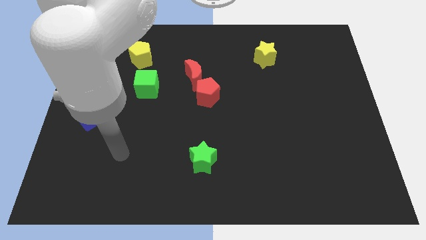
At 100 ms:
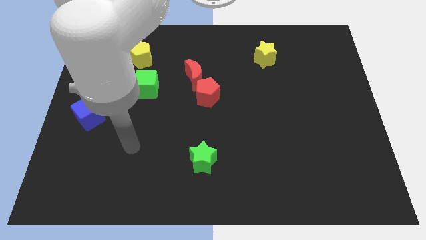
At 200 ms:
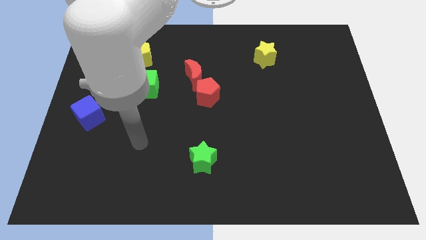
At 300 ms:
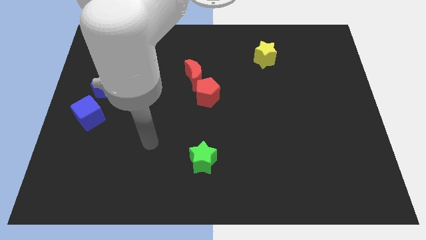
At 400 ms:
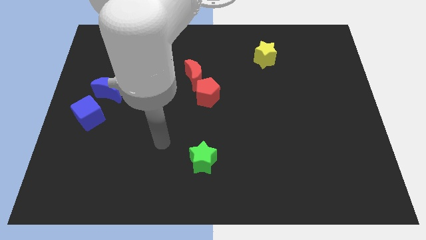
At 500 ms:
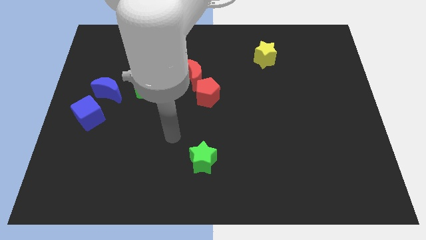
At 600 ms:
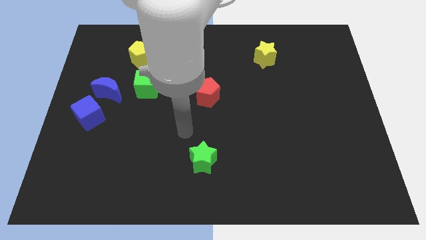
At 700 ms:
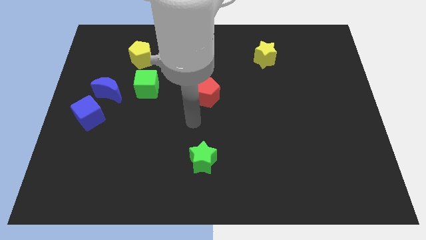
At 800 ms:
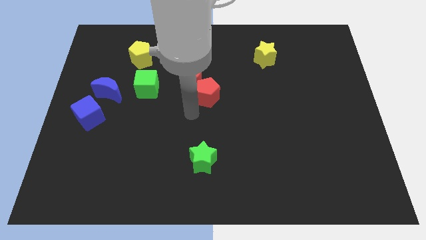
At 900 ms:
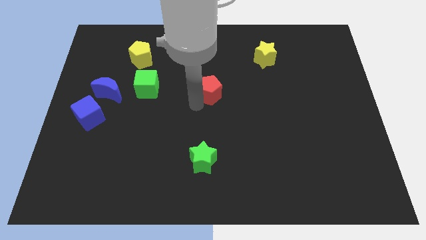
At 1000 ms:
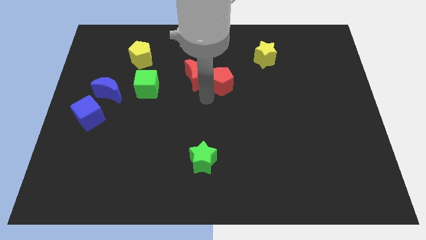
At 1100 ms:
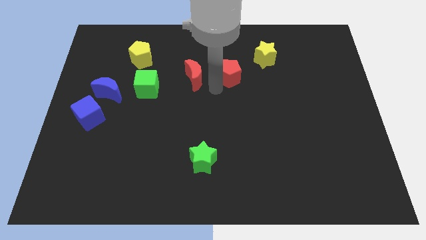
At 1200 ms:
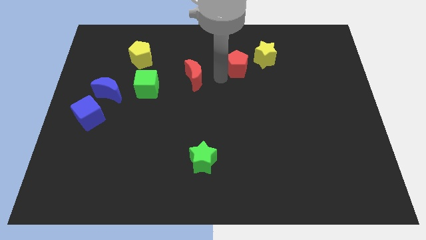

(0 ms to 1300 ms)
move the red moon away from the red pentagon

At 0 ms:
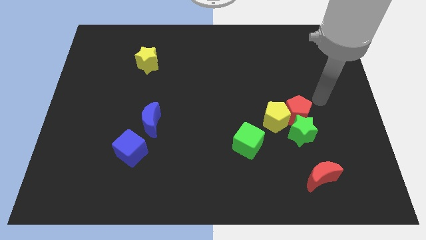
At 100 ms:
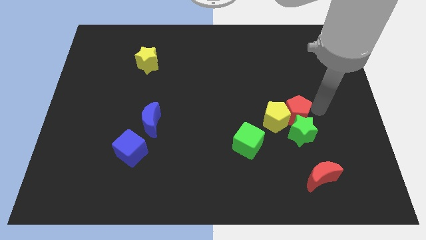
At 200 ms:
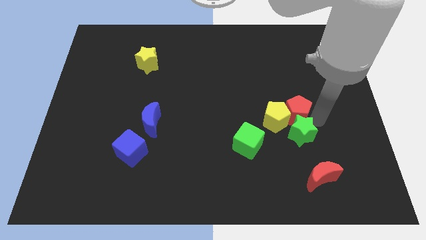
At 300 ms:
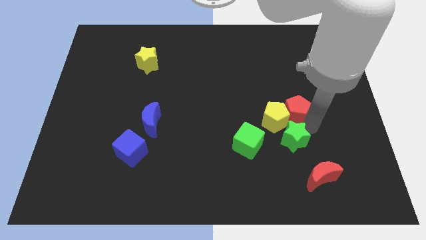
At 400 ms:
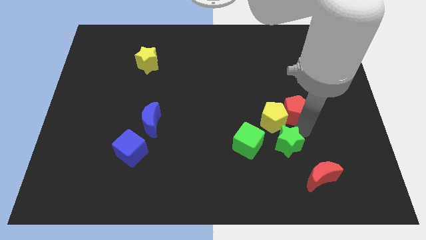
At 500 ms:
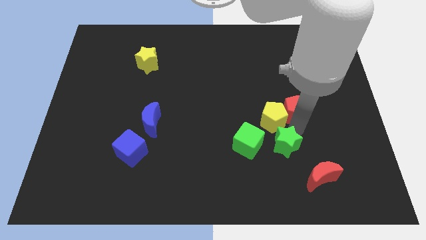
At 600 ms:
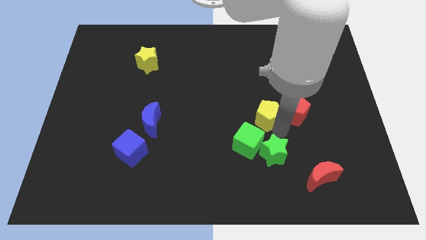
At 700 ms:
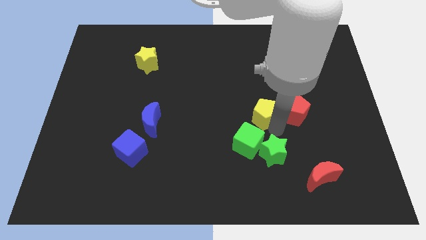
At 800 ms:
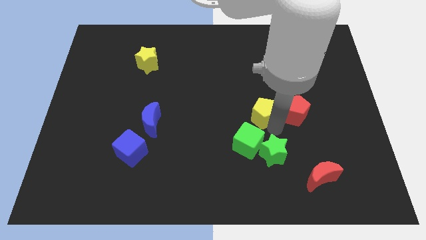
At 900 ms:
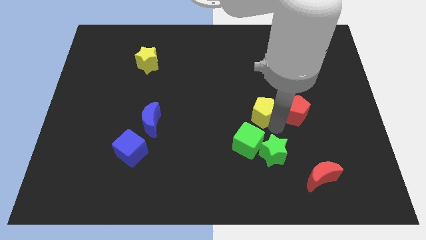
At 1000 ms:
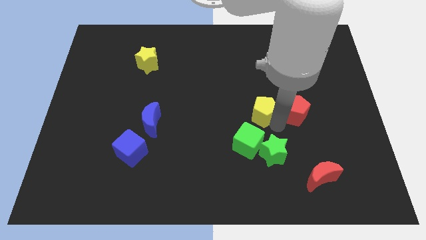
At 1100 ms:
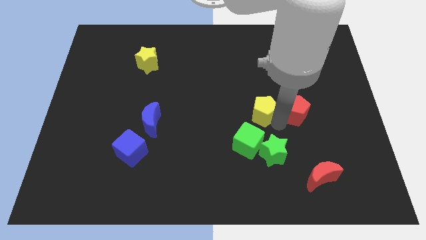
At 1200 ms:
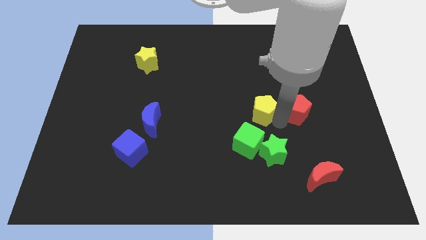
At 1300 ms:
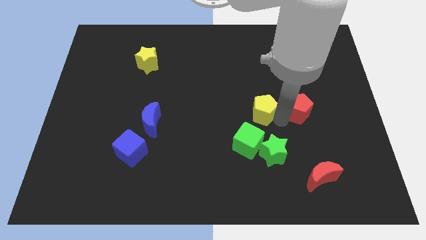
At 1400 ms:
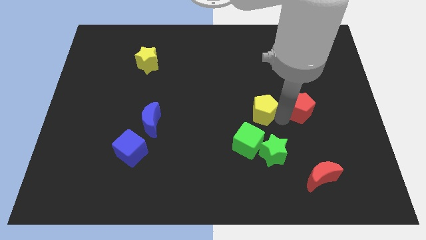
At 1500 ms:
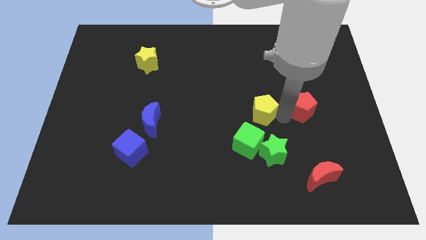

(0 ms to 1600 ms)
pull the red pentagon apart from the green star and yellow pentagon

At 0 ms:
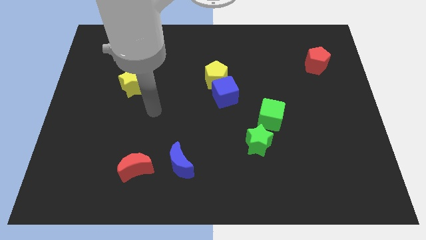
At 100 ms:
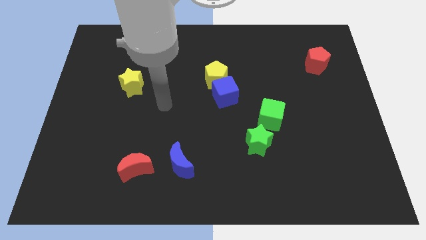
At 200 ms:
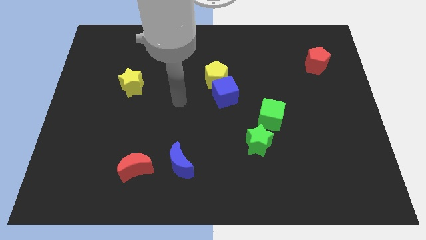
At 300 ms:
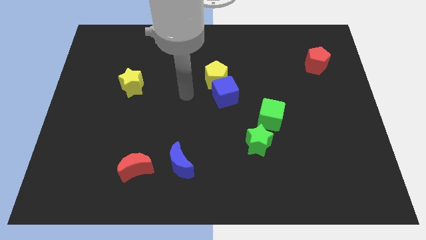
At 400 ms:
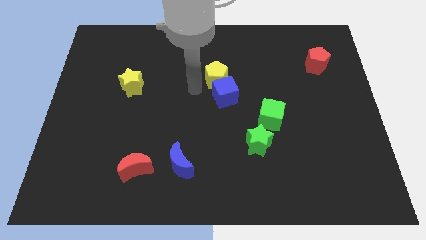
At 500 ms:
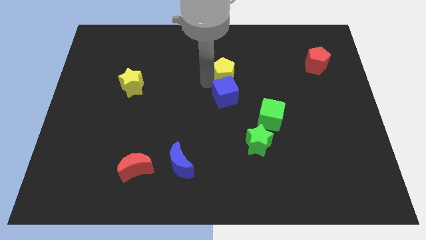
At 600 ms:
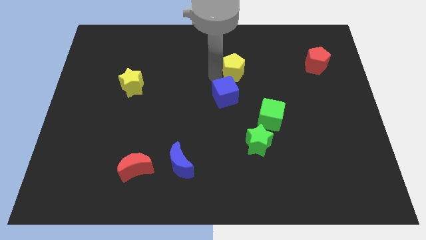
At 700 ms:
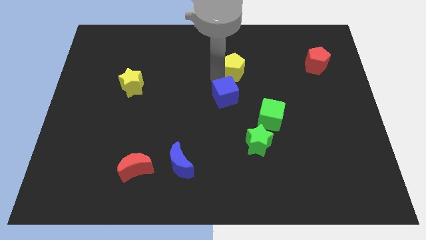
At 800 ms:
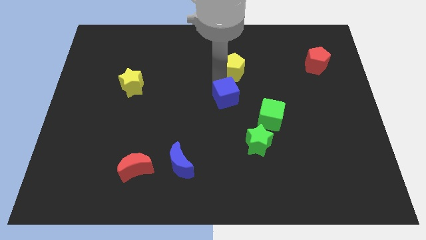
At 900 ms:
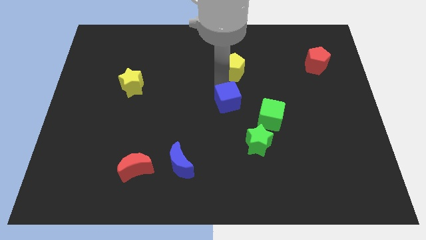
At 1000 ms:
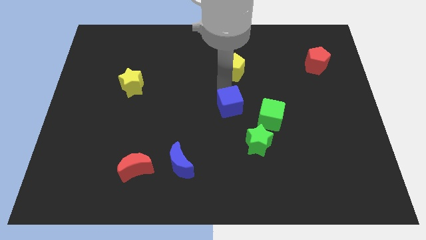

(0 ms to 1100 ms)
move the blue cube away from the yellow pentagon

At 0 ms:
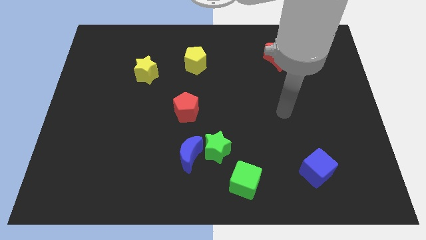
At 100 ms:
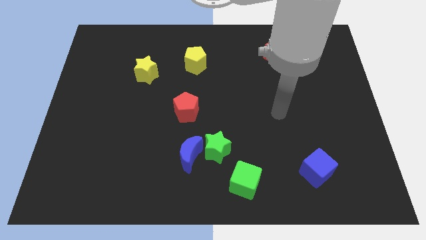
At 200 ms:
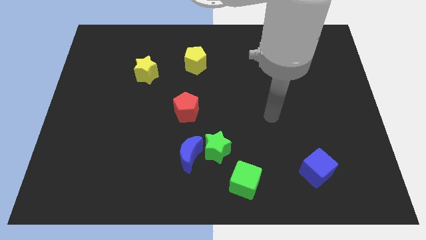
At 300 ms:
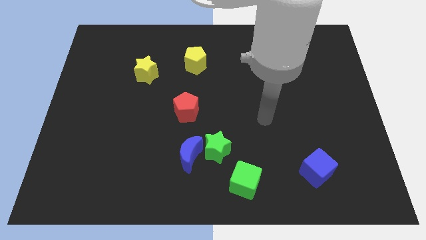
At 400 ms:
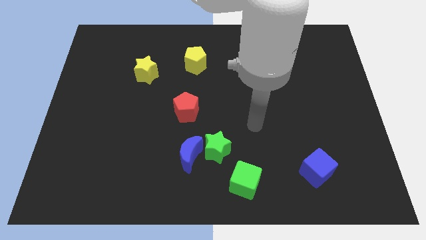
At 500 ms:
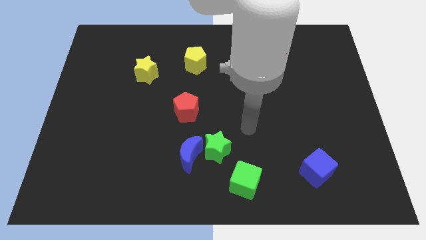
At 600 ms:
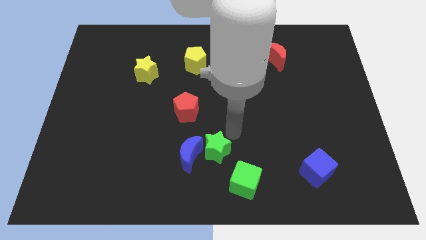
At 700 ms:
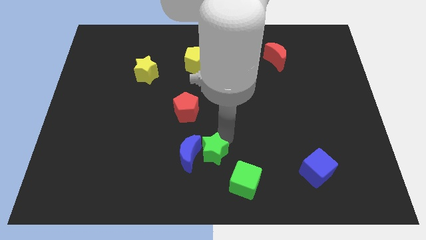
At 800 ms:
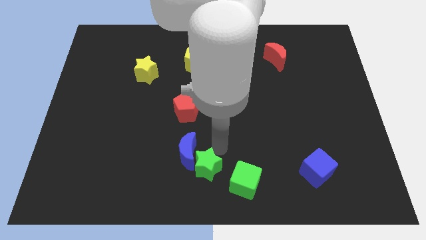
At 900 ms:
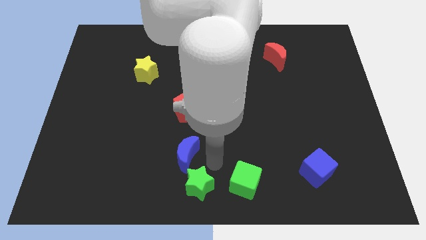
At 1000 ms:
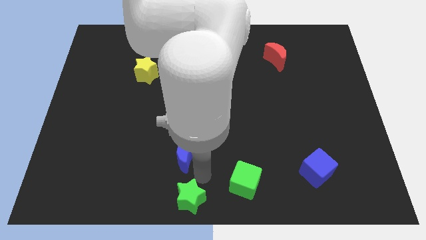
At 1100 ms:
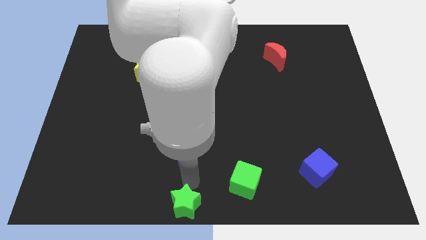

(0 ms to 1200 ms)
separate the blue moon from the green star

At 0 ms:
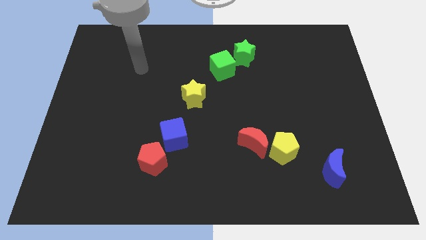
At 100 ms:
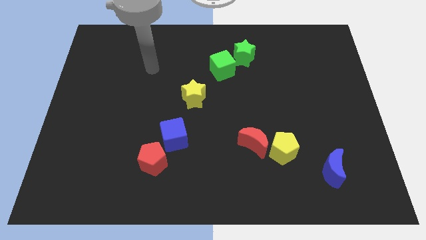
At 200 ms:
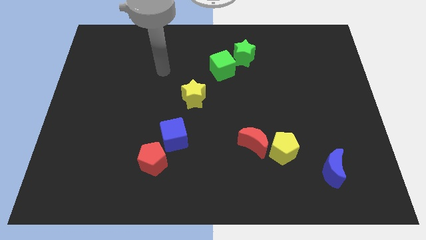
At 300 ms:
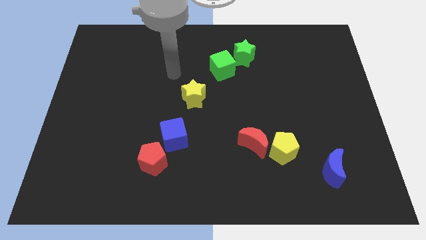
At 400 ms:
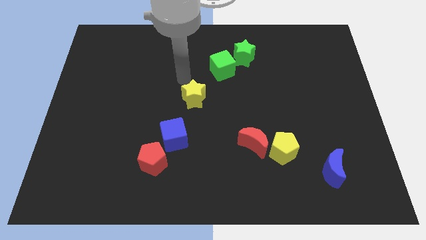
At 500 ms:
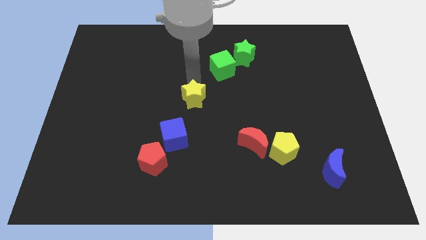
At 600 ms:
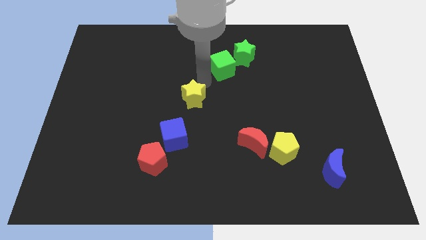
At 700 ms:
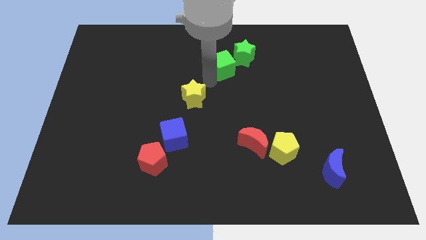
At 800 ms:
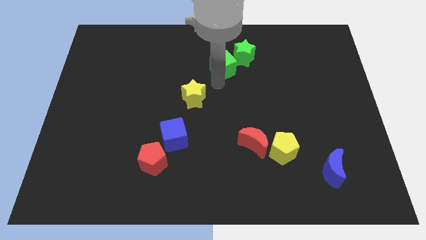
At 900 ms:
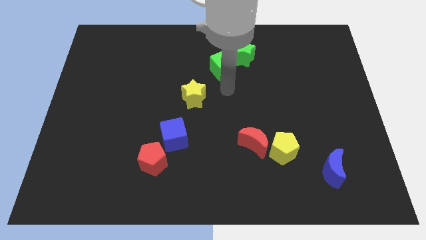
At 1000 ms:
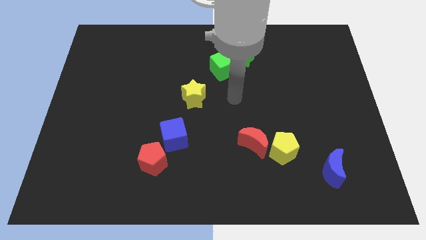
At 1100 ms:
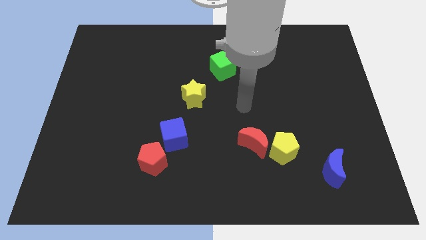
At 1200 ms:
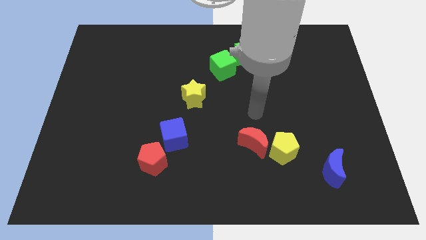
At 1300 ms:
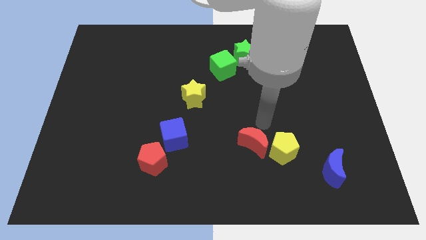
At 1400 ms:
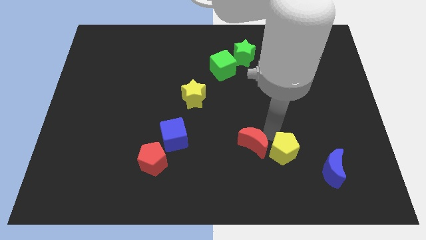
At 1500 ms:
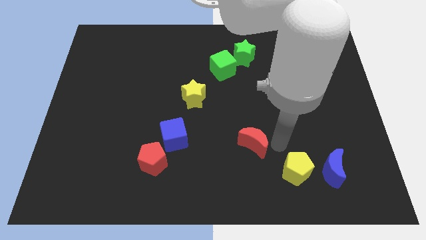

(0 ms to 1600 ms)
move the red moon away from the yellow pentagon

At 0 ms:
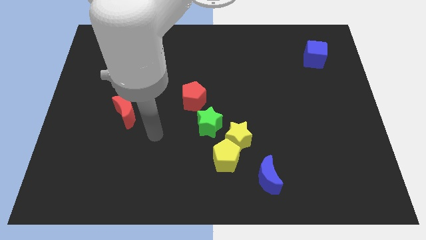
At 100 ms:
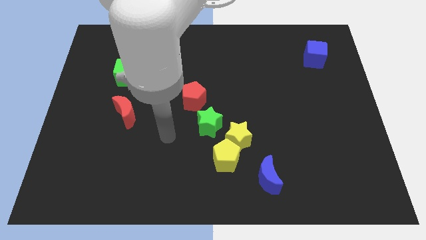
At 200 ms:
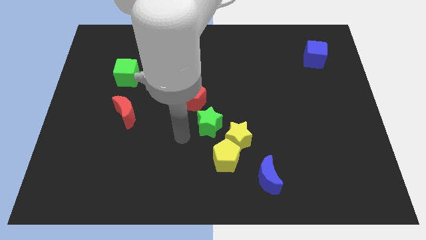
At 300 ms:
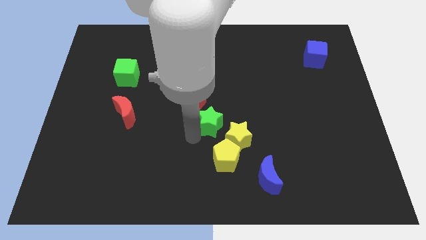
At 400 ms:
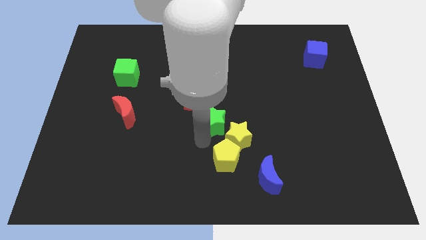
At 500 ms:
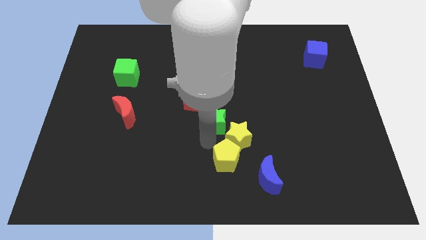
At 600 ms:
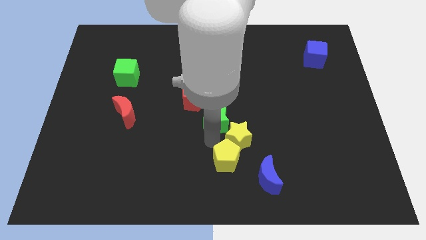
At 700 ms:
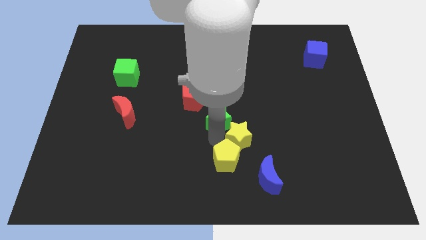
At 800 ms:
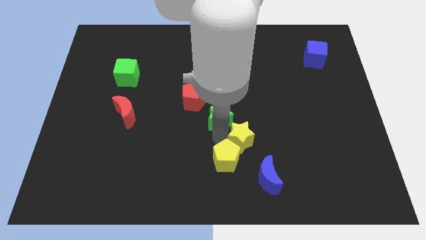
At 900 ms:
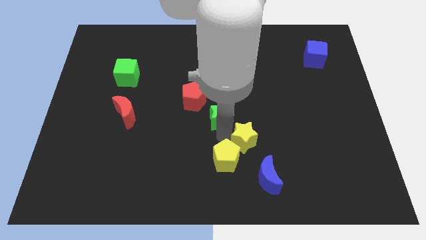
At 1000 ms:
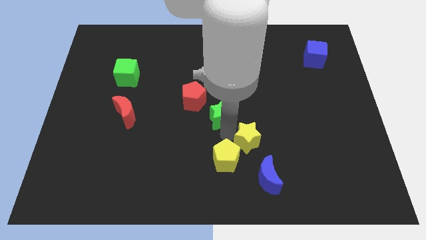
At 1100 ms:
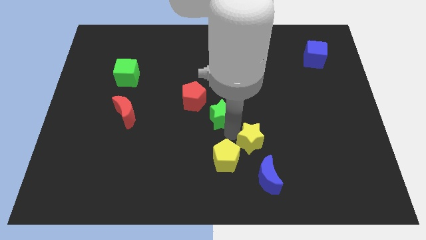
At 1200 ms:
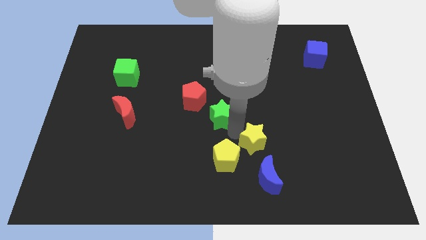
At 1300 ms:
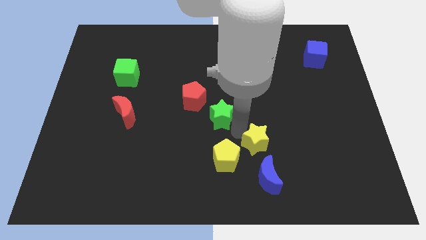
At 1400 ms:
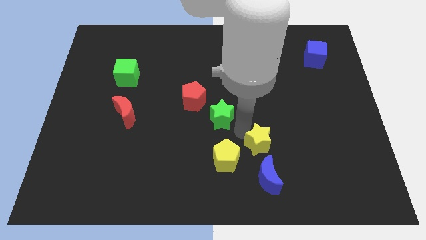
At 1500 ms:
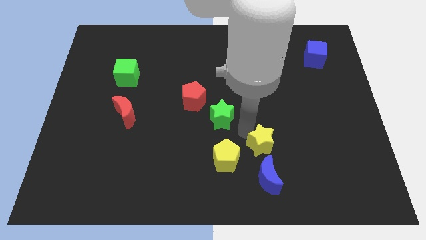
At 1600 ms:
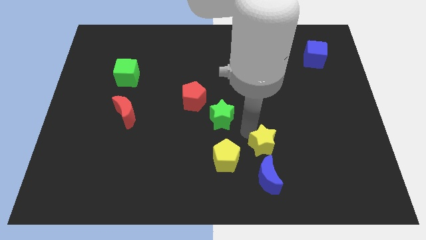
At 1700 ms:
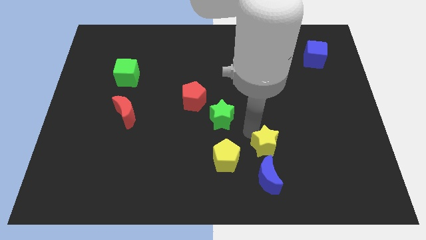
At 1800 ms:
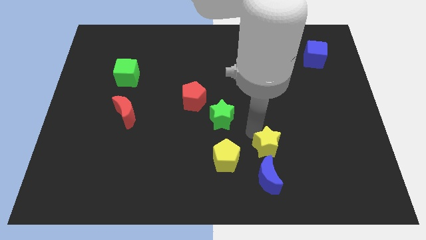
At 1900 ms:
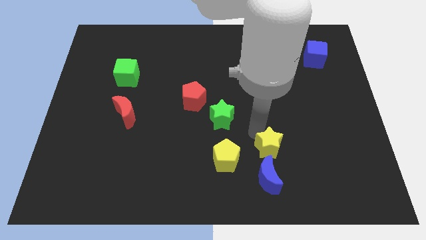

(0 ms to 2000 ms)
pull the yellow star apart from the yellow pentagon and green star

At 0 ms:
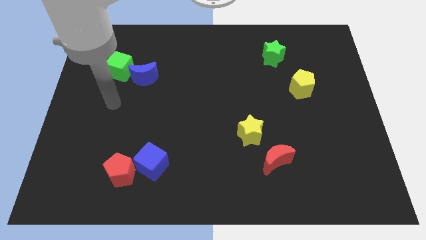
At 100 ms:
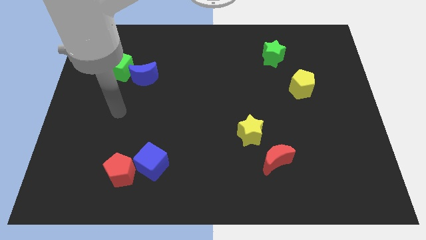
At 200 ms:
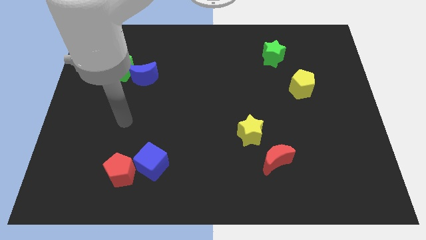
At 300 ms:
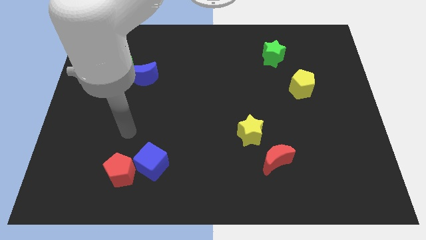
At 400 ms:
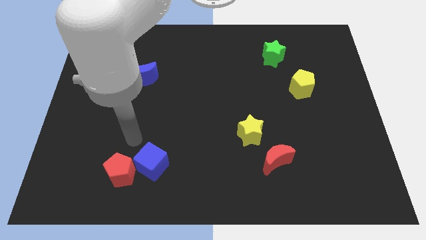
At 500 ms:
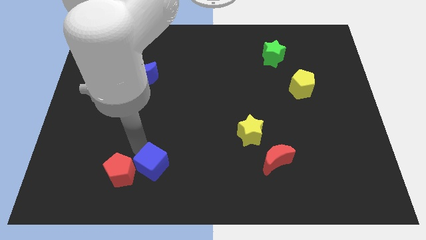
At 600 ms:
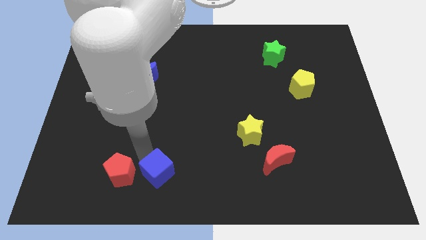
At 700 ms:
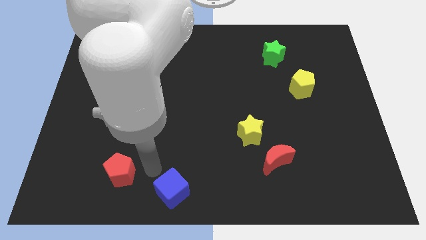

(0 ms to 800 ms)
pull the red pentagon apart from the blue cube
